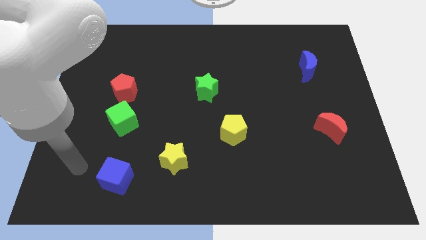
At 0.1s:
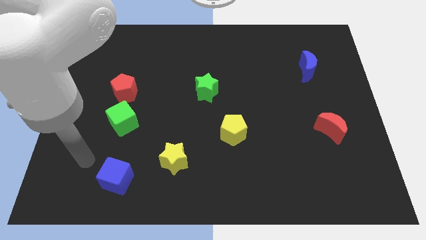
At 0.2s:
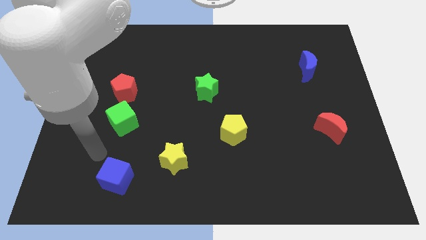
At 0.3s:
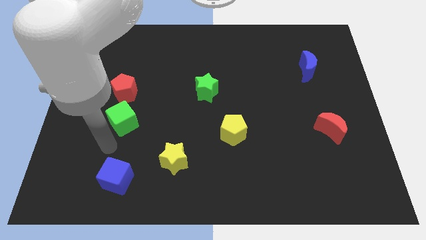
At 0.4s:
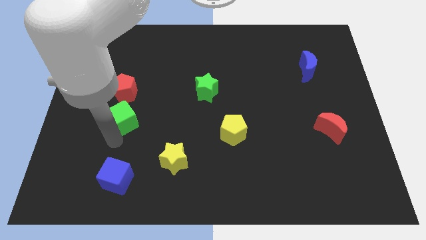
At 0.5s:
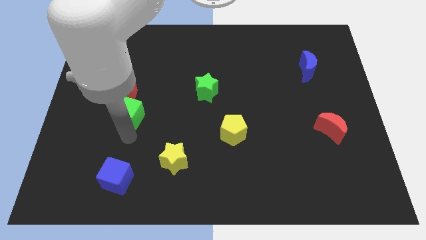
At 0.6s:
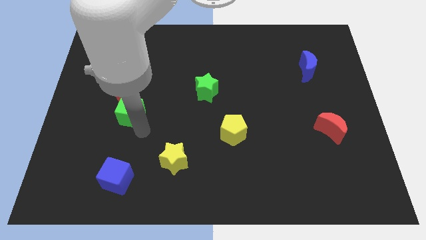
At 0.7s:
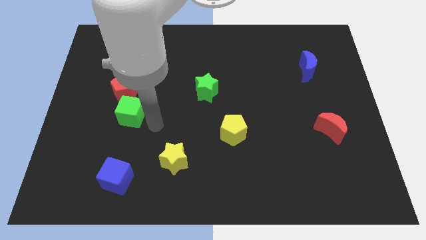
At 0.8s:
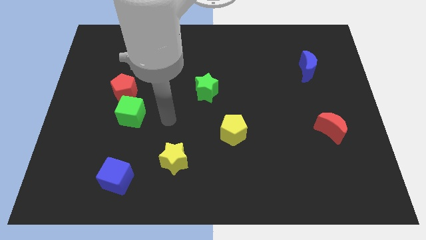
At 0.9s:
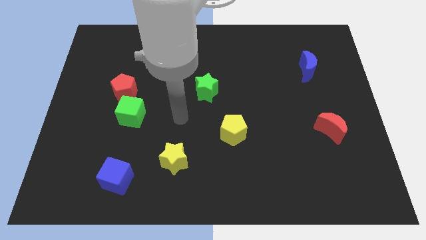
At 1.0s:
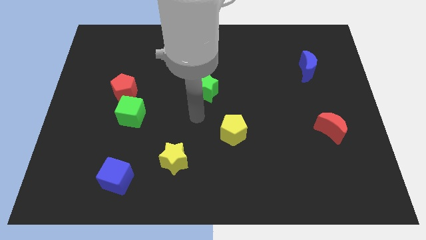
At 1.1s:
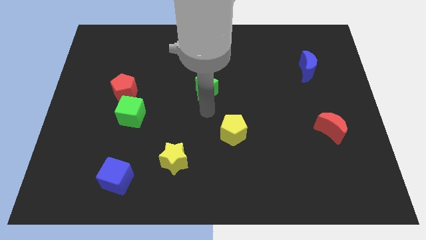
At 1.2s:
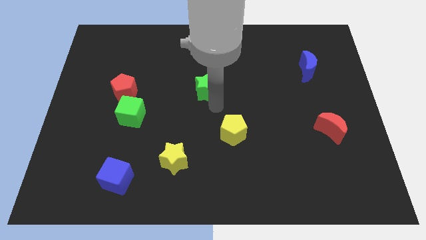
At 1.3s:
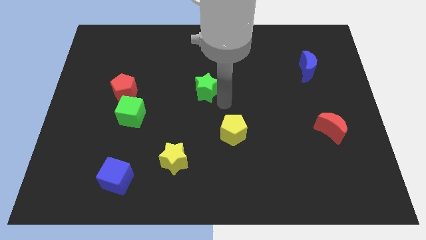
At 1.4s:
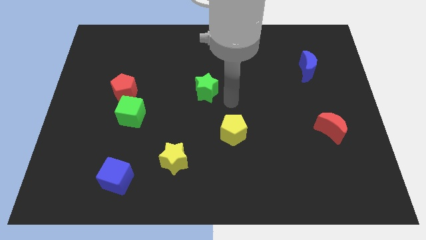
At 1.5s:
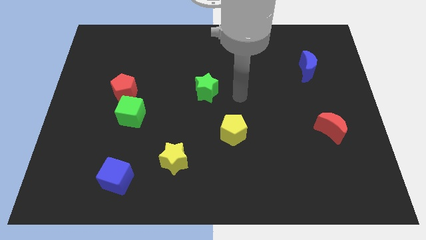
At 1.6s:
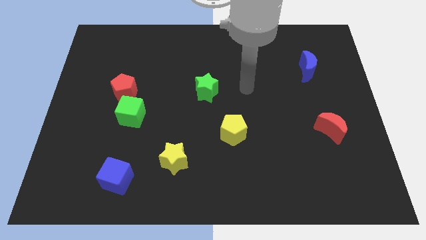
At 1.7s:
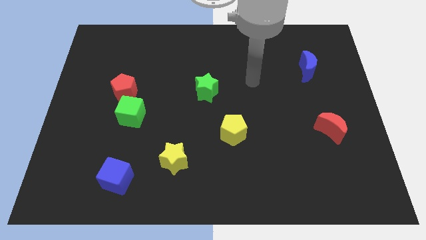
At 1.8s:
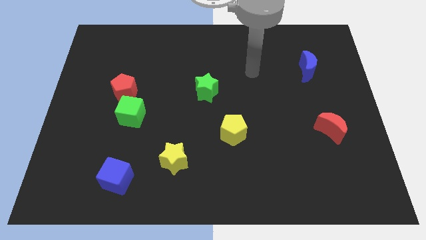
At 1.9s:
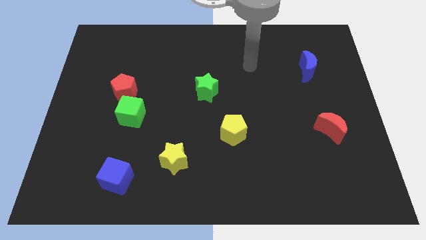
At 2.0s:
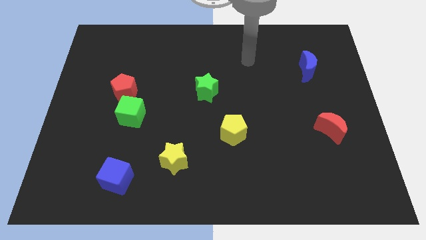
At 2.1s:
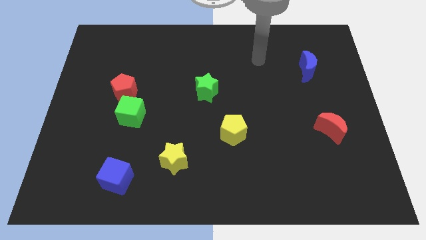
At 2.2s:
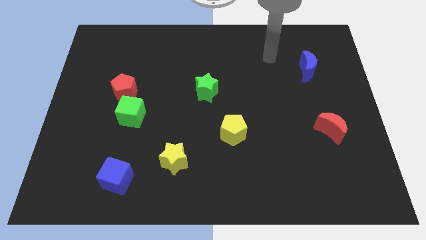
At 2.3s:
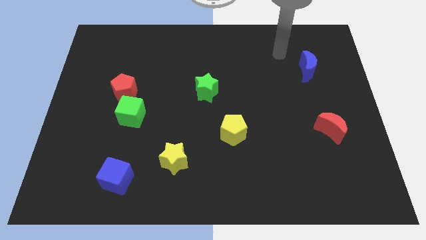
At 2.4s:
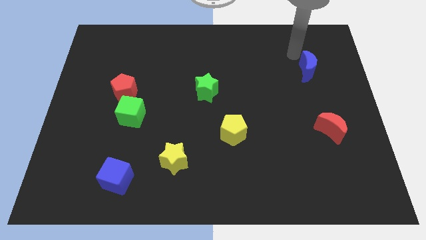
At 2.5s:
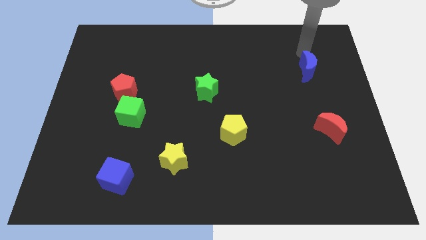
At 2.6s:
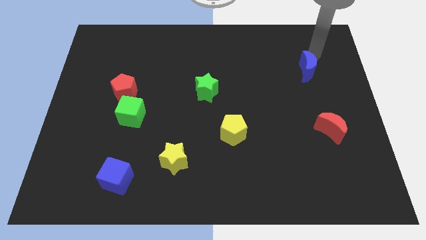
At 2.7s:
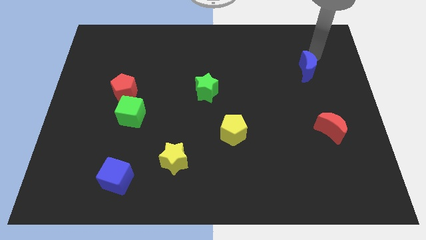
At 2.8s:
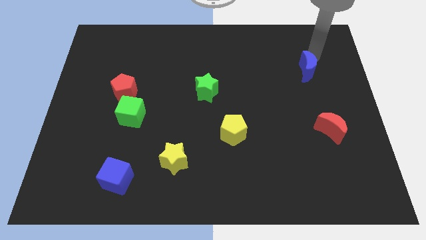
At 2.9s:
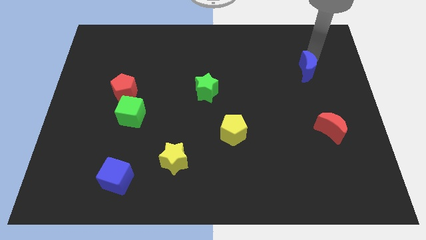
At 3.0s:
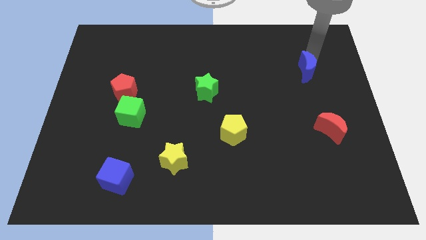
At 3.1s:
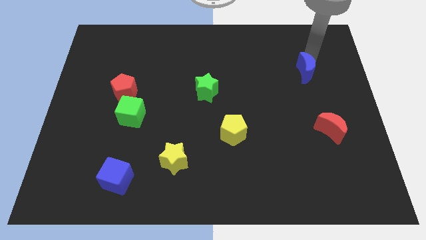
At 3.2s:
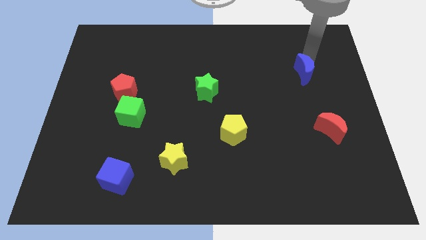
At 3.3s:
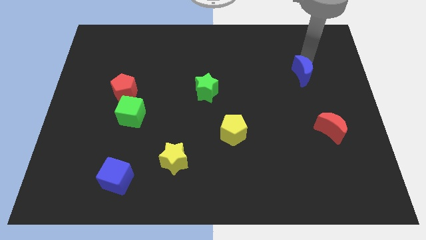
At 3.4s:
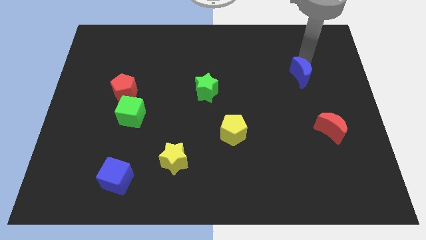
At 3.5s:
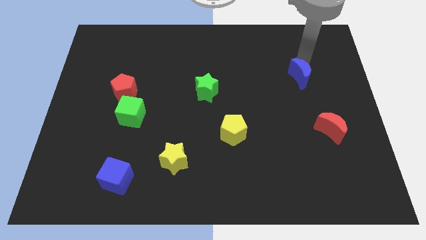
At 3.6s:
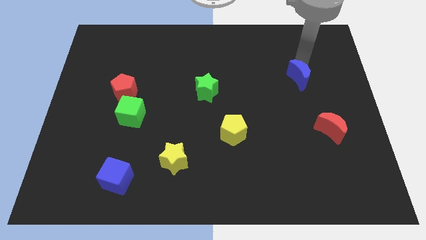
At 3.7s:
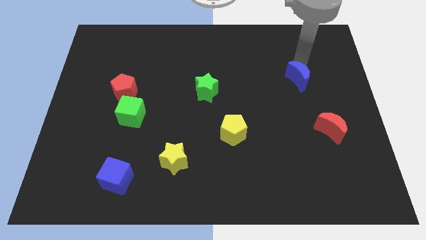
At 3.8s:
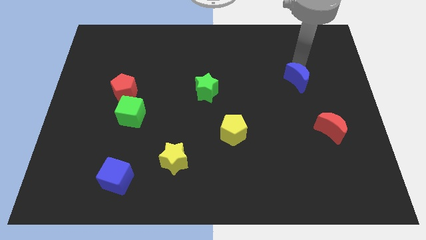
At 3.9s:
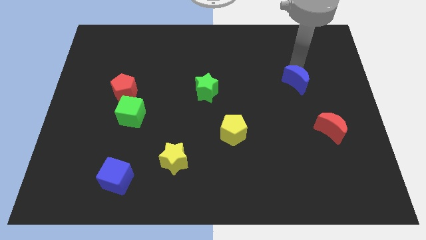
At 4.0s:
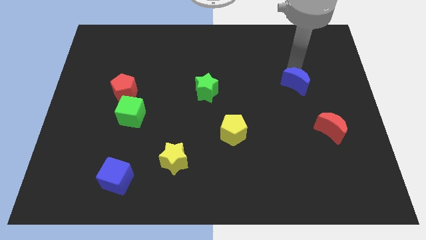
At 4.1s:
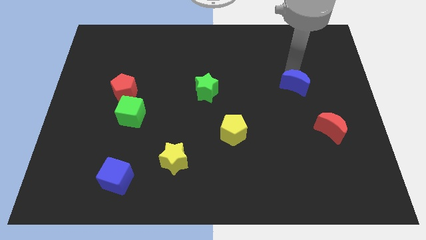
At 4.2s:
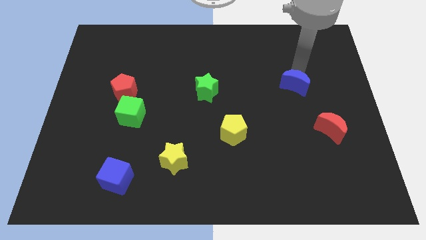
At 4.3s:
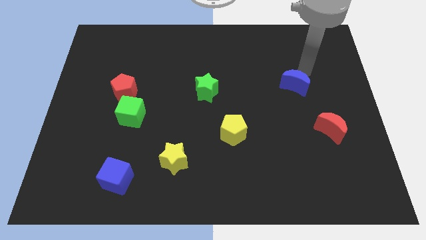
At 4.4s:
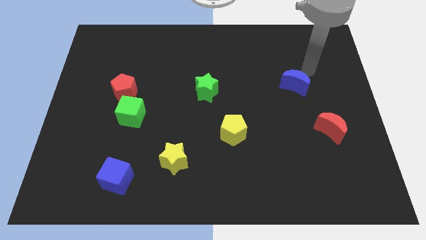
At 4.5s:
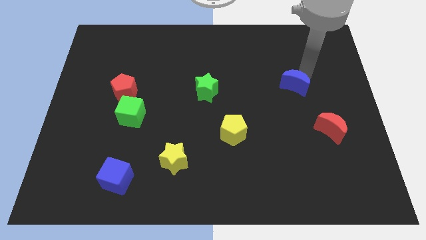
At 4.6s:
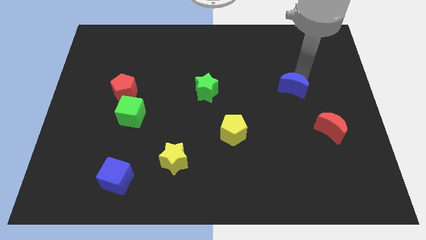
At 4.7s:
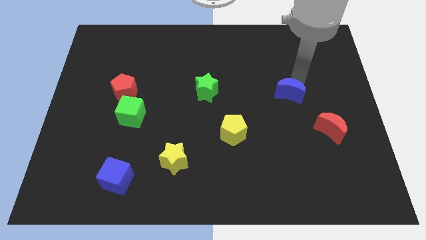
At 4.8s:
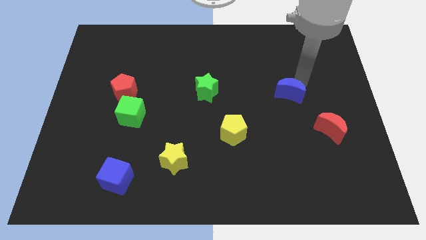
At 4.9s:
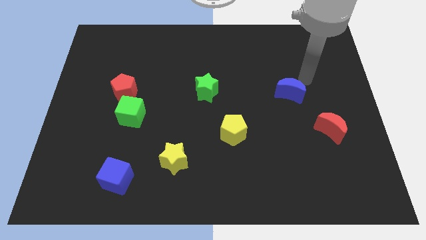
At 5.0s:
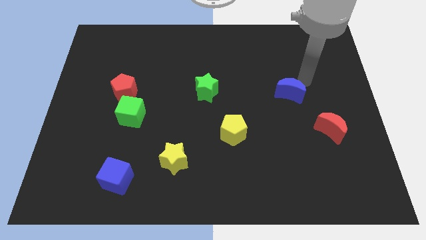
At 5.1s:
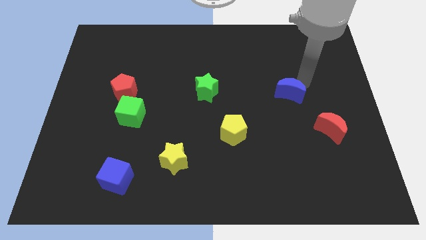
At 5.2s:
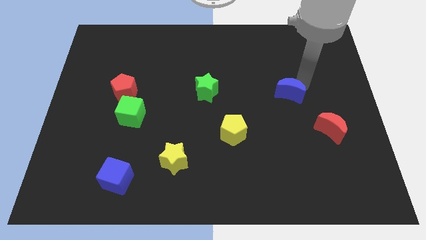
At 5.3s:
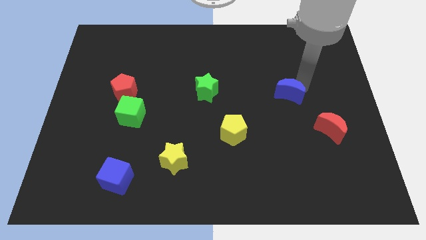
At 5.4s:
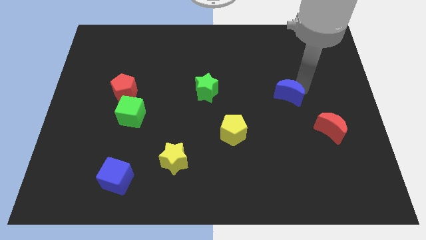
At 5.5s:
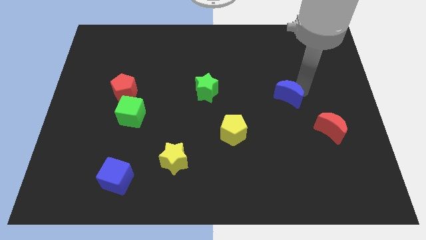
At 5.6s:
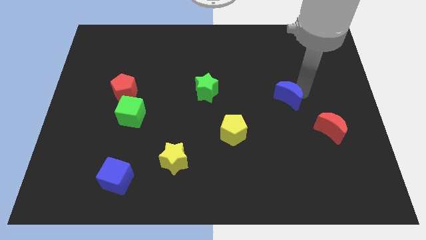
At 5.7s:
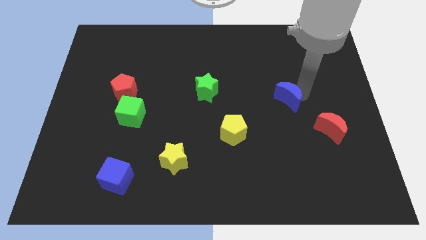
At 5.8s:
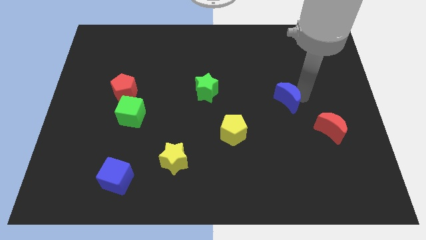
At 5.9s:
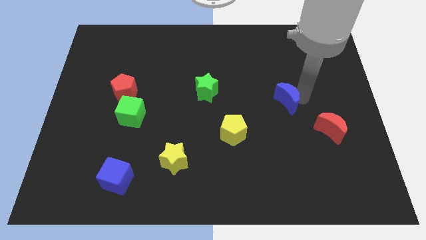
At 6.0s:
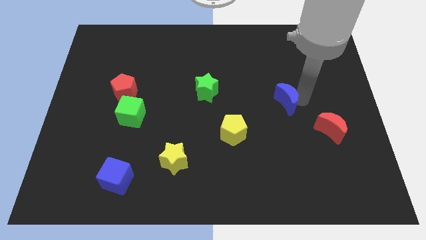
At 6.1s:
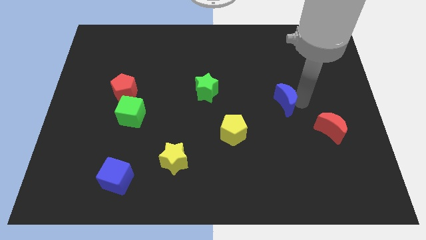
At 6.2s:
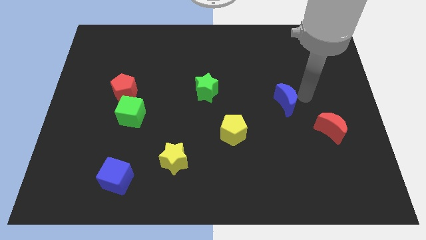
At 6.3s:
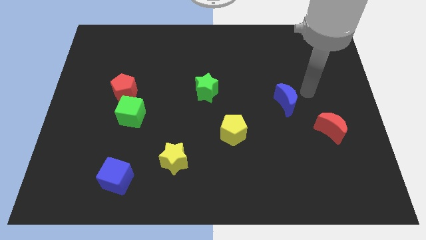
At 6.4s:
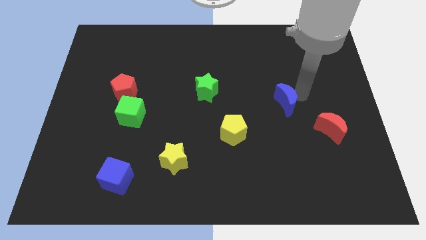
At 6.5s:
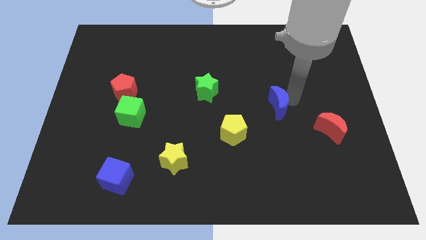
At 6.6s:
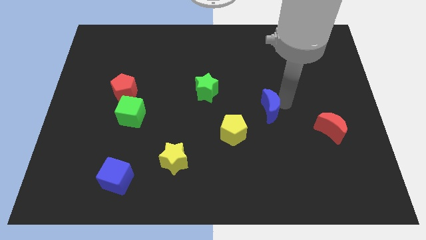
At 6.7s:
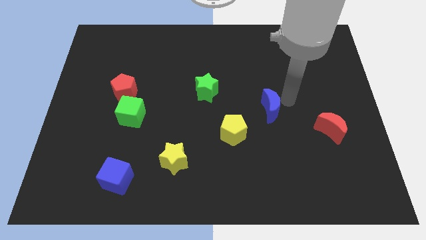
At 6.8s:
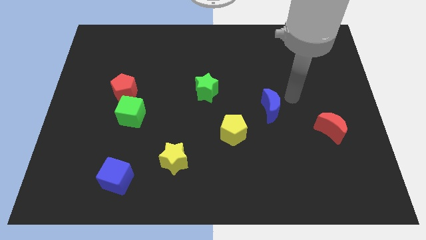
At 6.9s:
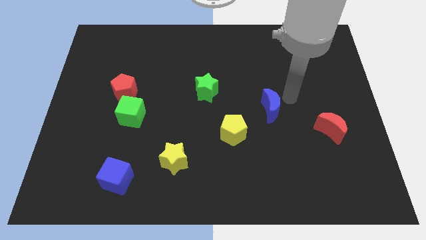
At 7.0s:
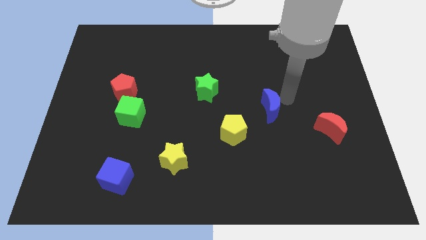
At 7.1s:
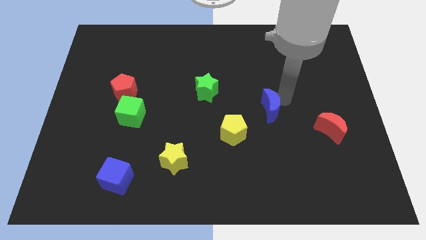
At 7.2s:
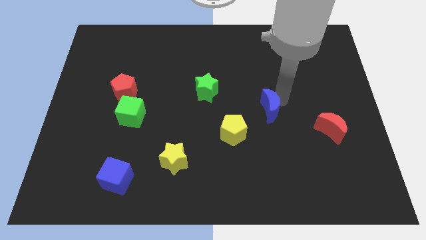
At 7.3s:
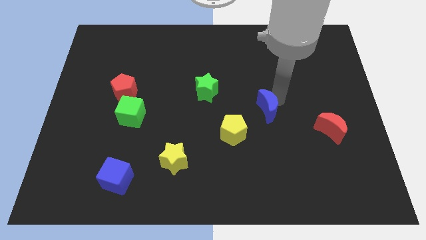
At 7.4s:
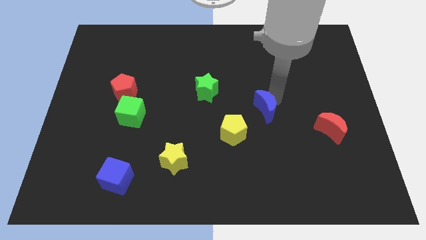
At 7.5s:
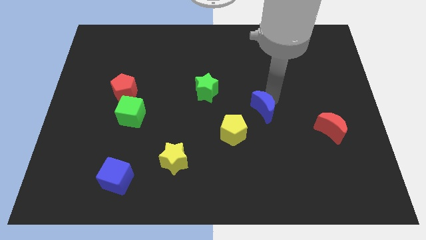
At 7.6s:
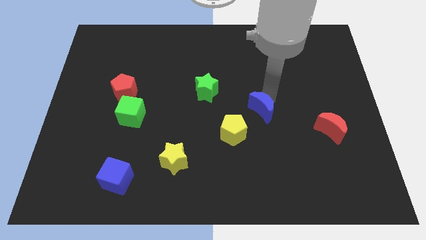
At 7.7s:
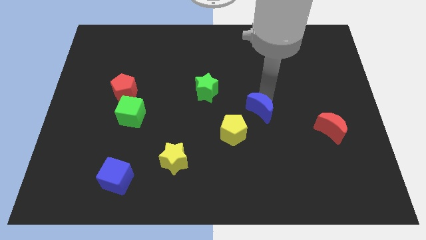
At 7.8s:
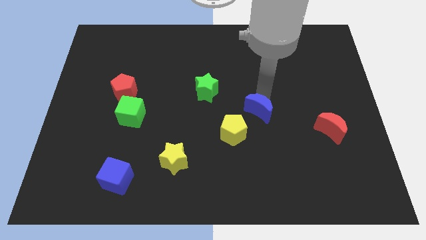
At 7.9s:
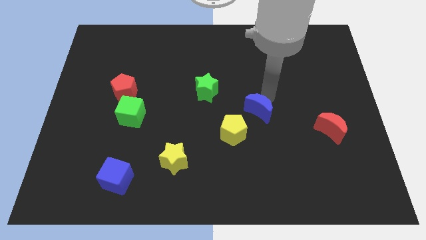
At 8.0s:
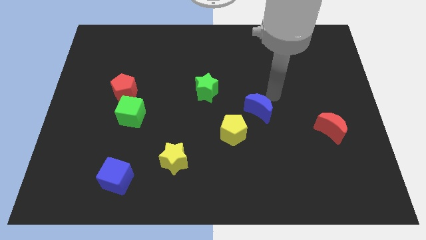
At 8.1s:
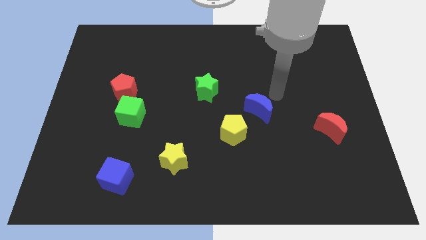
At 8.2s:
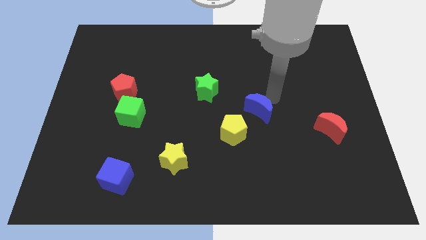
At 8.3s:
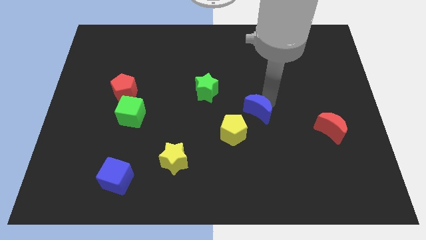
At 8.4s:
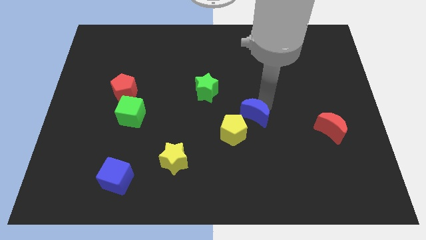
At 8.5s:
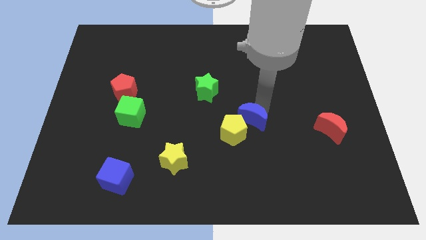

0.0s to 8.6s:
put the blue moon to the yellow pentagon
